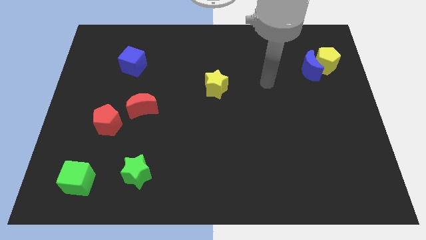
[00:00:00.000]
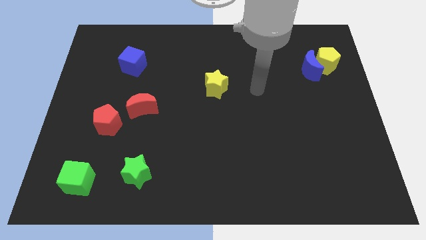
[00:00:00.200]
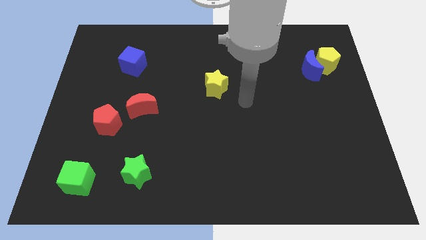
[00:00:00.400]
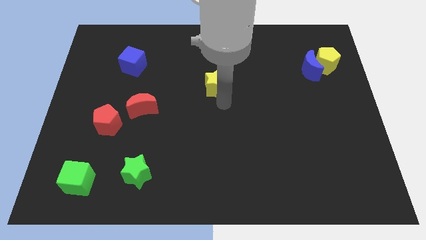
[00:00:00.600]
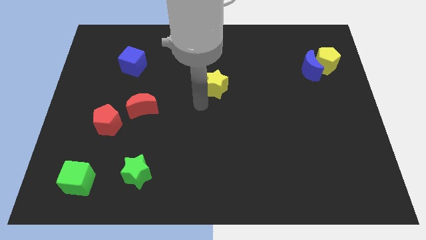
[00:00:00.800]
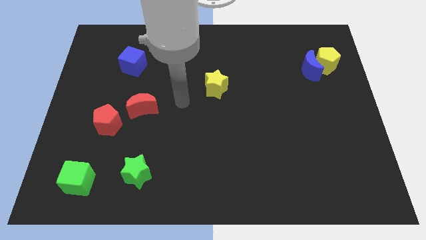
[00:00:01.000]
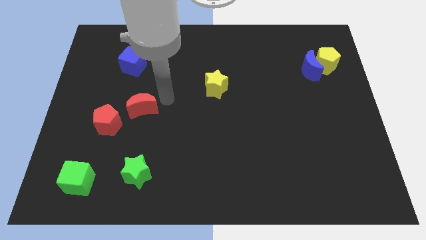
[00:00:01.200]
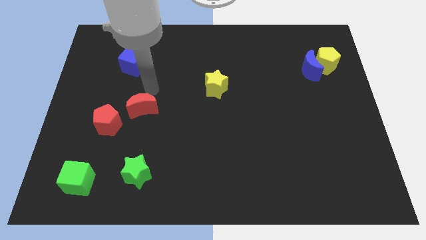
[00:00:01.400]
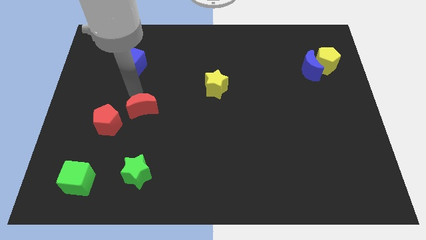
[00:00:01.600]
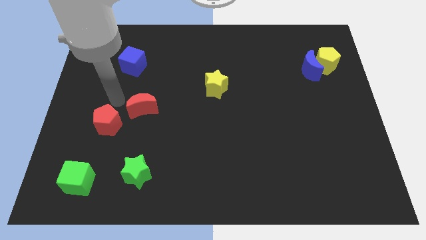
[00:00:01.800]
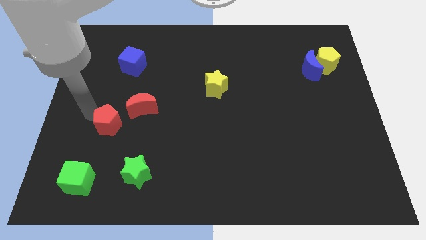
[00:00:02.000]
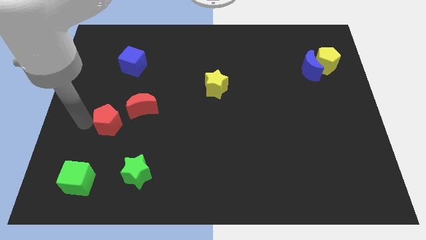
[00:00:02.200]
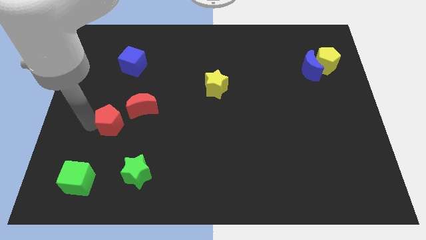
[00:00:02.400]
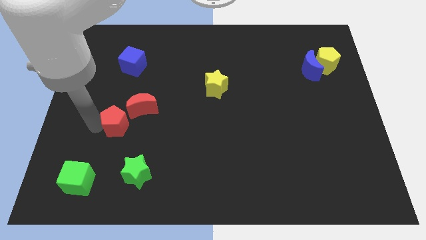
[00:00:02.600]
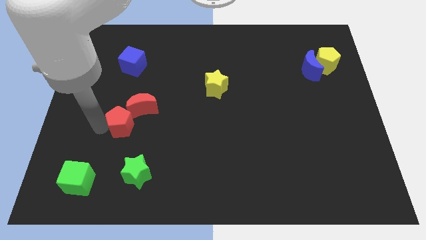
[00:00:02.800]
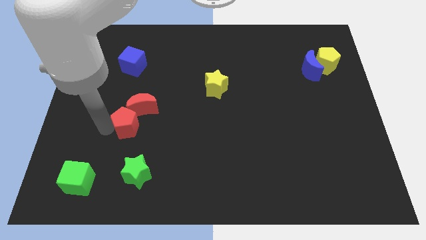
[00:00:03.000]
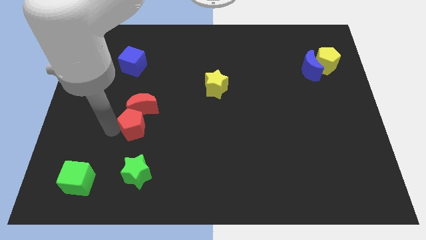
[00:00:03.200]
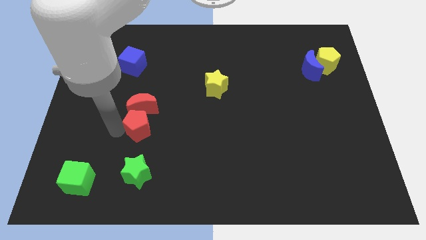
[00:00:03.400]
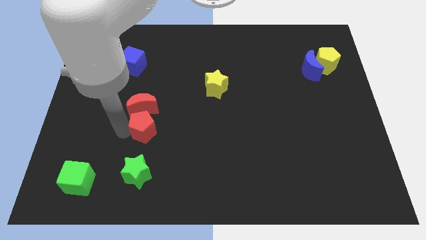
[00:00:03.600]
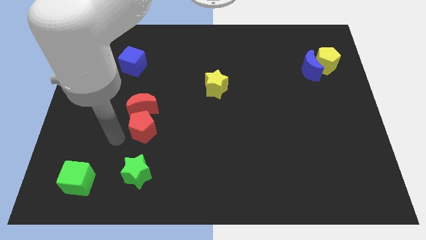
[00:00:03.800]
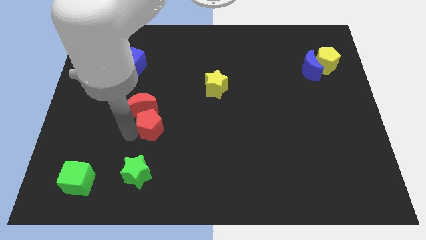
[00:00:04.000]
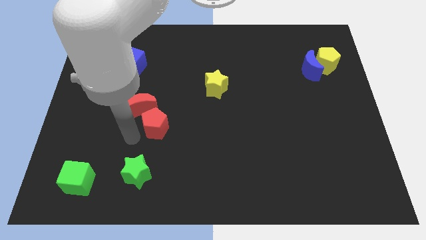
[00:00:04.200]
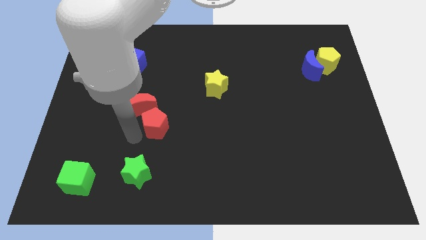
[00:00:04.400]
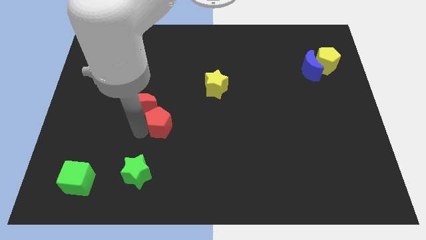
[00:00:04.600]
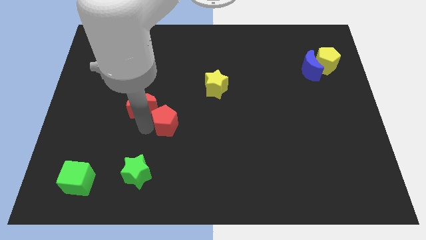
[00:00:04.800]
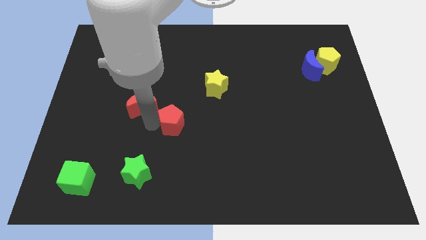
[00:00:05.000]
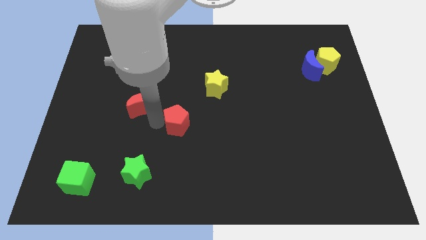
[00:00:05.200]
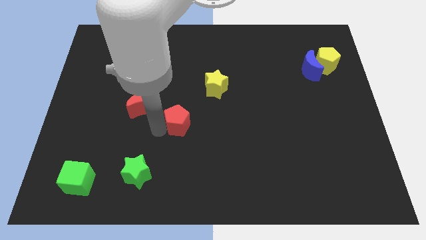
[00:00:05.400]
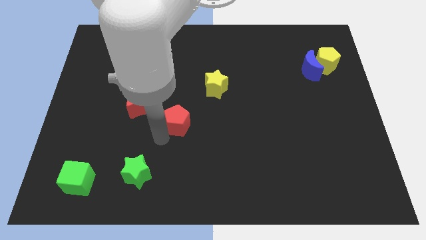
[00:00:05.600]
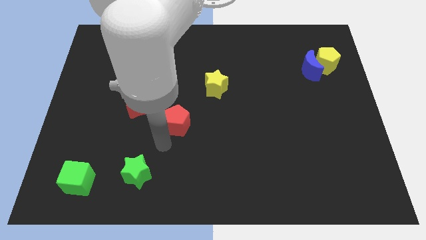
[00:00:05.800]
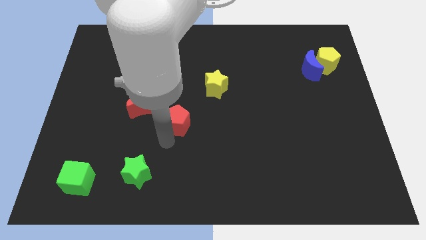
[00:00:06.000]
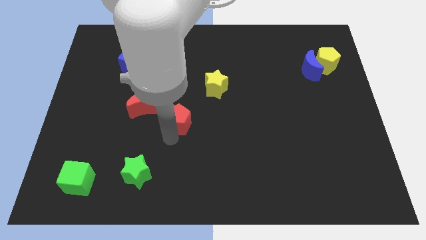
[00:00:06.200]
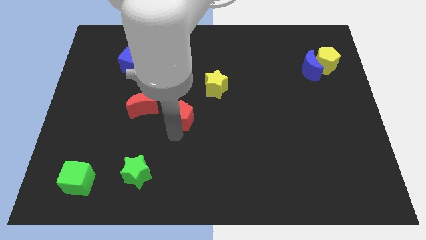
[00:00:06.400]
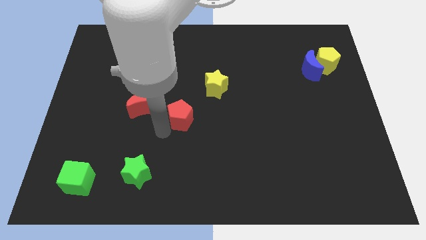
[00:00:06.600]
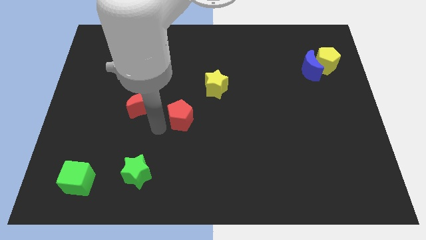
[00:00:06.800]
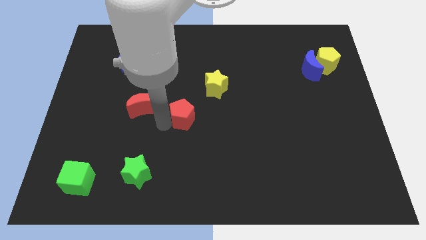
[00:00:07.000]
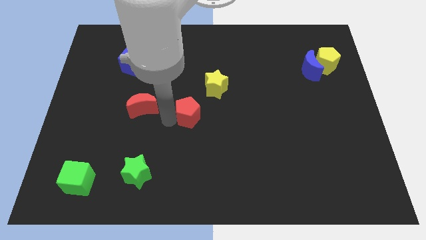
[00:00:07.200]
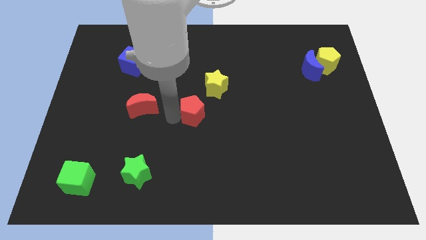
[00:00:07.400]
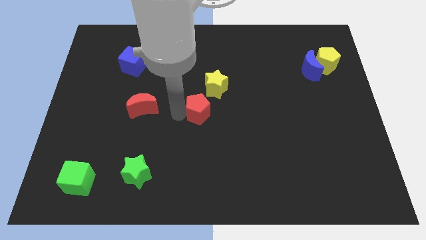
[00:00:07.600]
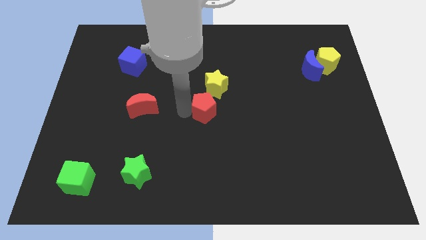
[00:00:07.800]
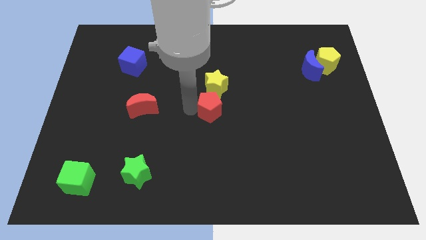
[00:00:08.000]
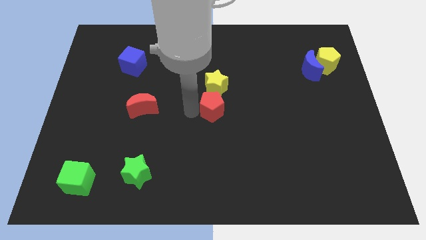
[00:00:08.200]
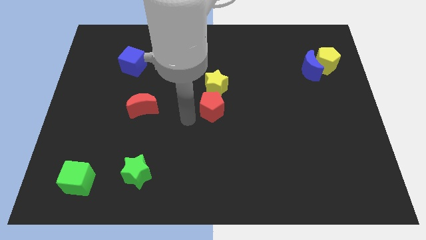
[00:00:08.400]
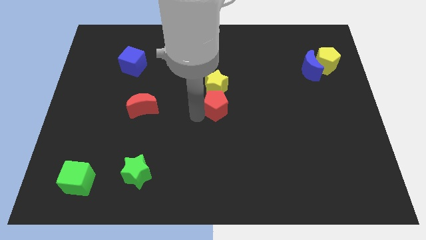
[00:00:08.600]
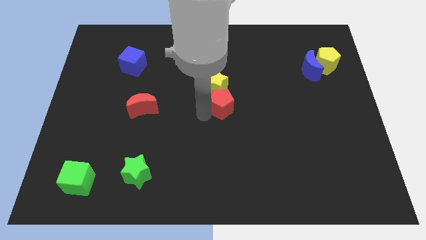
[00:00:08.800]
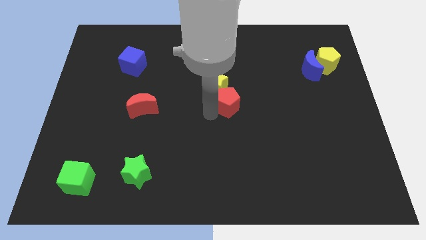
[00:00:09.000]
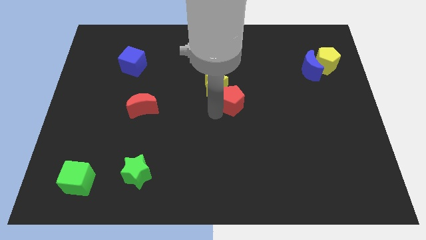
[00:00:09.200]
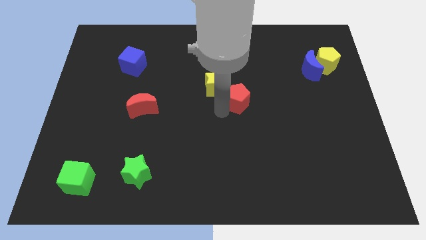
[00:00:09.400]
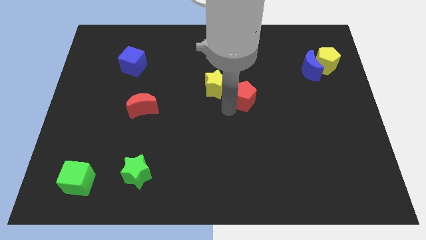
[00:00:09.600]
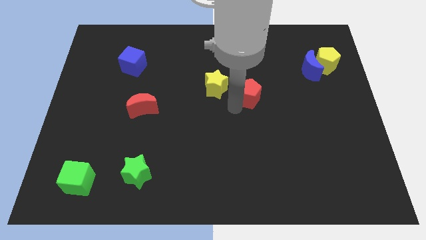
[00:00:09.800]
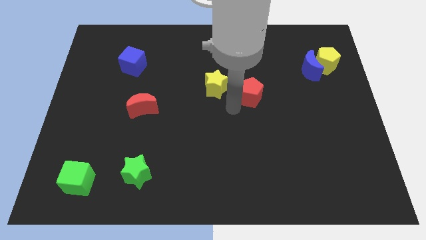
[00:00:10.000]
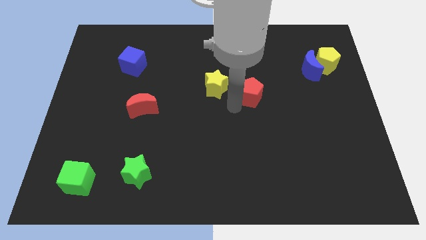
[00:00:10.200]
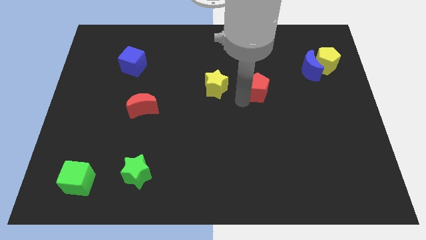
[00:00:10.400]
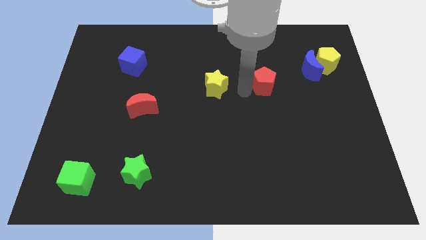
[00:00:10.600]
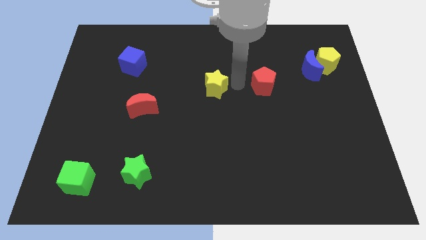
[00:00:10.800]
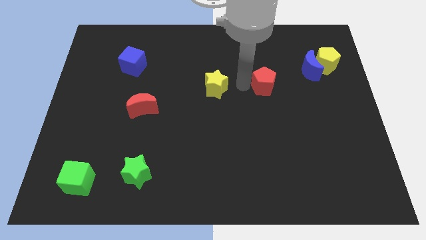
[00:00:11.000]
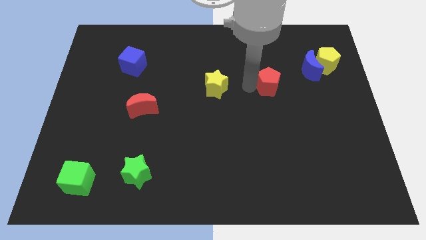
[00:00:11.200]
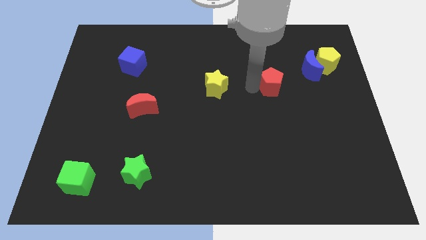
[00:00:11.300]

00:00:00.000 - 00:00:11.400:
push the red pentagon diagonally down and to the left of the blue moon

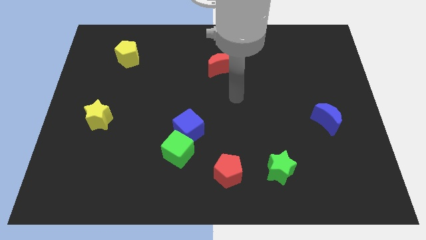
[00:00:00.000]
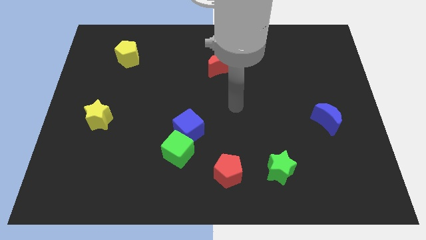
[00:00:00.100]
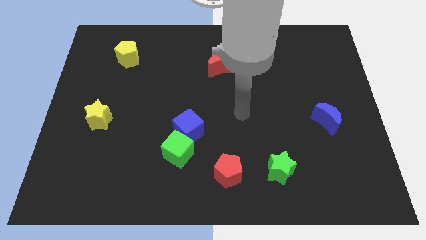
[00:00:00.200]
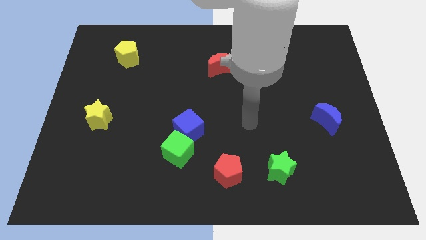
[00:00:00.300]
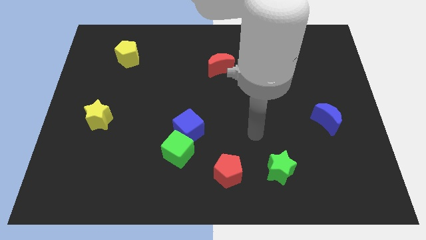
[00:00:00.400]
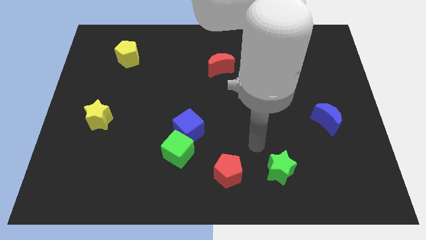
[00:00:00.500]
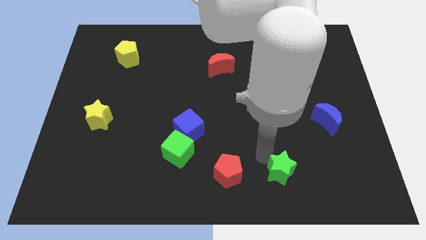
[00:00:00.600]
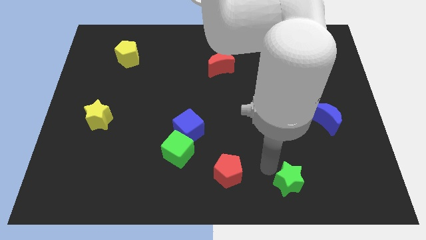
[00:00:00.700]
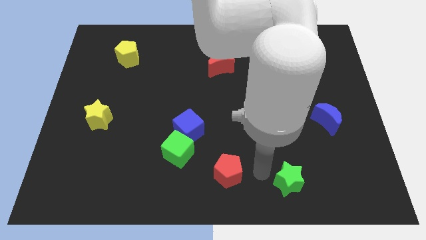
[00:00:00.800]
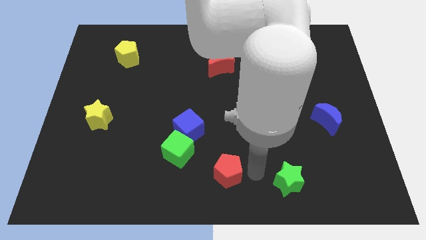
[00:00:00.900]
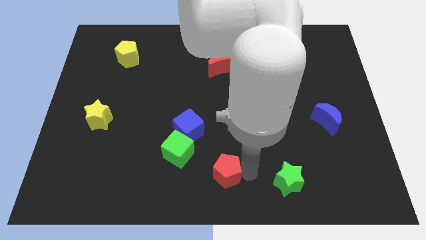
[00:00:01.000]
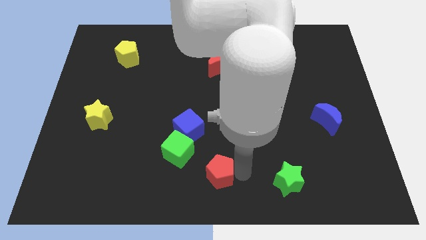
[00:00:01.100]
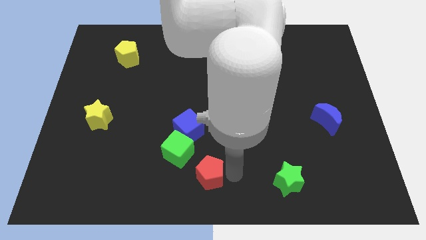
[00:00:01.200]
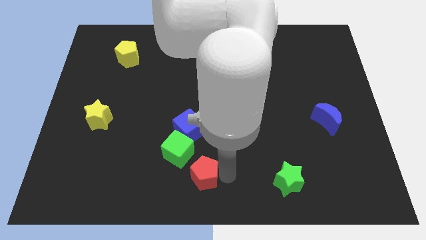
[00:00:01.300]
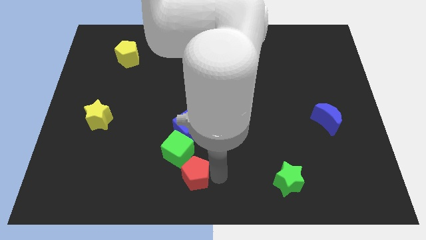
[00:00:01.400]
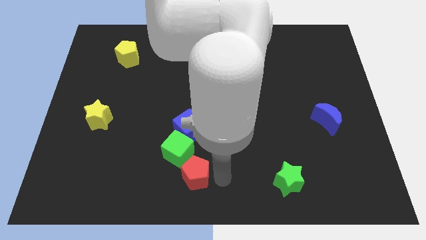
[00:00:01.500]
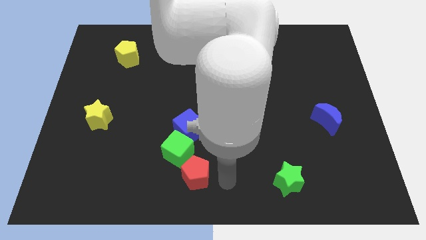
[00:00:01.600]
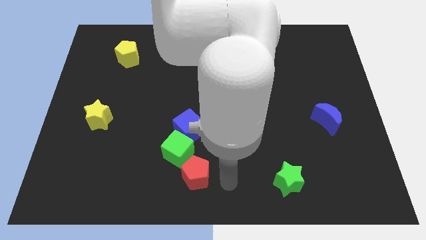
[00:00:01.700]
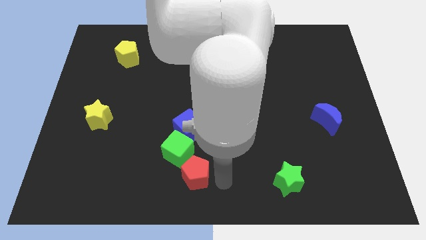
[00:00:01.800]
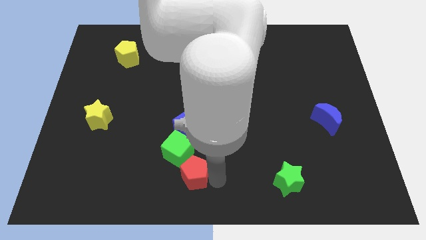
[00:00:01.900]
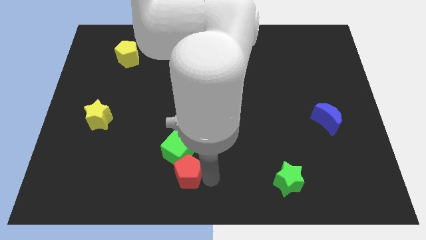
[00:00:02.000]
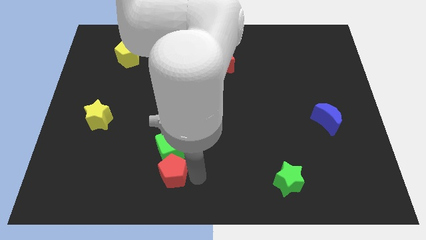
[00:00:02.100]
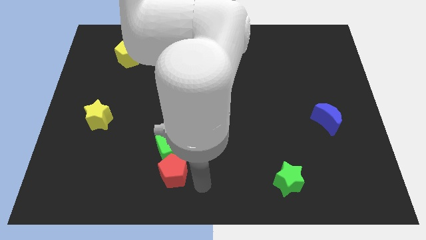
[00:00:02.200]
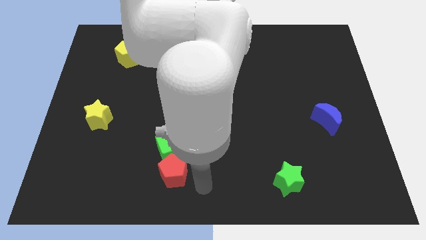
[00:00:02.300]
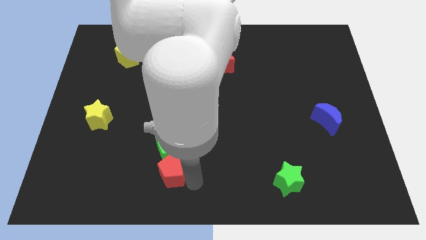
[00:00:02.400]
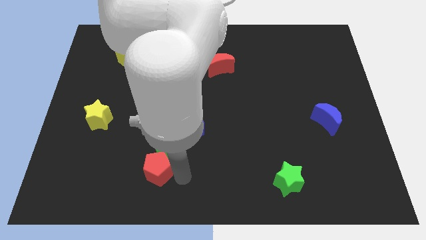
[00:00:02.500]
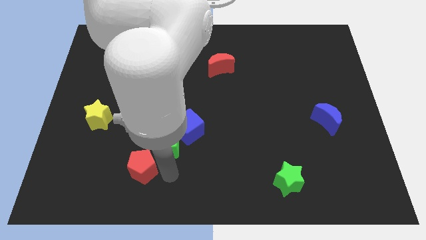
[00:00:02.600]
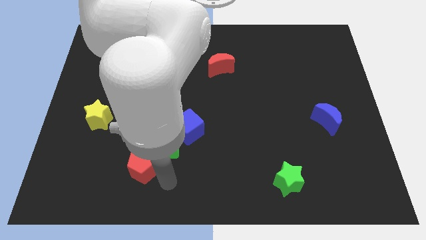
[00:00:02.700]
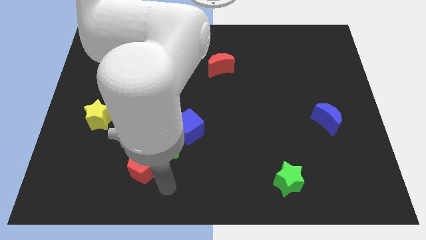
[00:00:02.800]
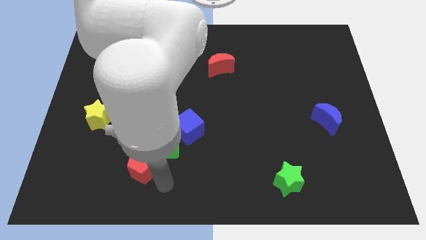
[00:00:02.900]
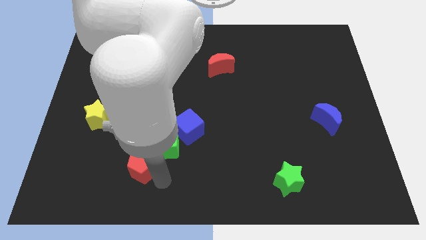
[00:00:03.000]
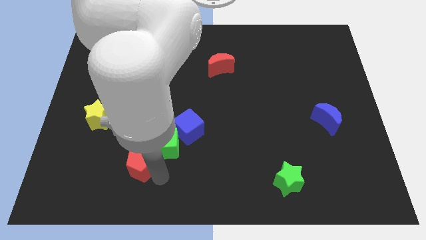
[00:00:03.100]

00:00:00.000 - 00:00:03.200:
put the red pentagon just left of the green cube
